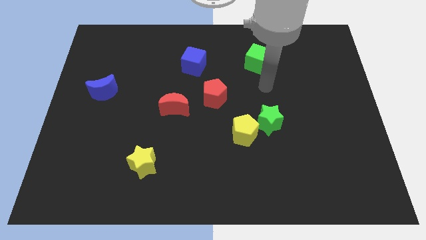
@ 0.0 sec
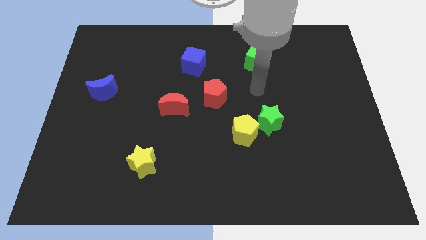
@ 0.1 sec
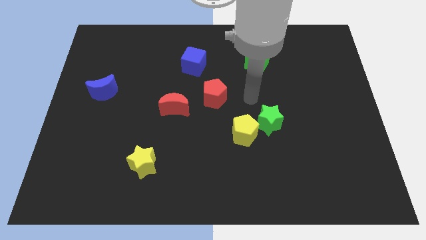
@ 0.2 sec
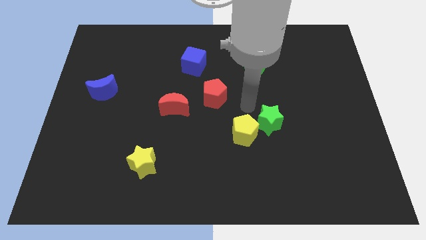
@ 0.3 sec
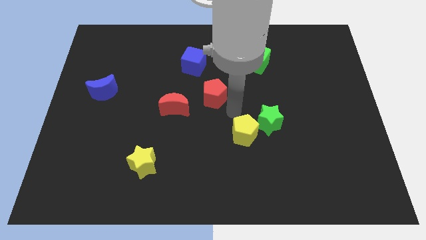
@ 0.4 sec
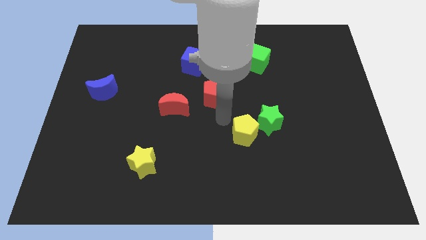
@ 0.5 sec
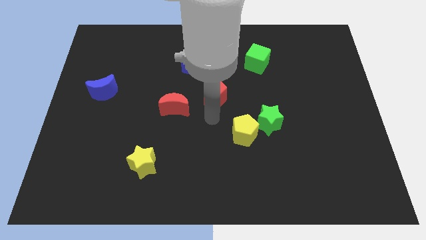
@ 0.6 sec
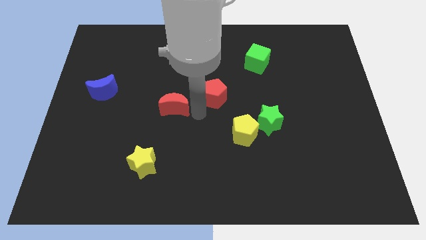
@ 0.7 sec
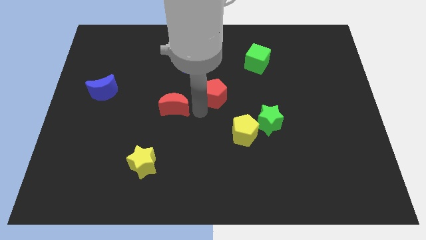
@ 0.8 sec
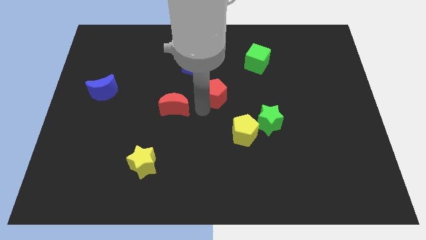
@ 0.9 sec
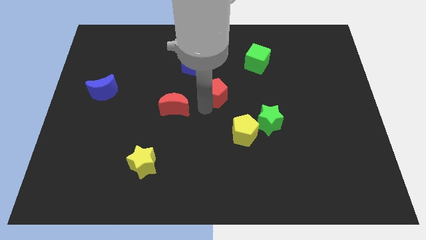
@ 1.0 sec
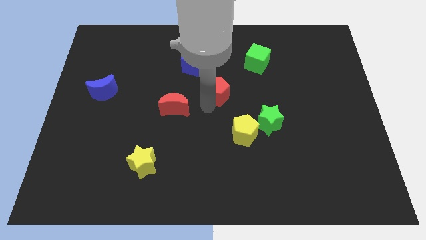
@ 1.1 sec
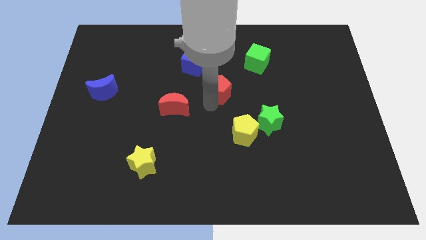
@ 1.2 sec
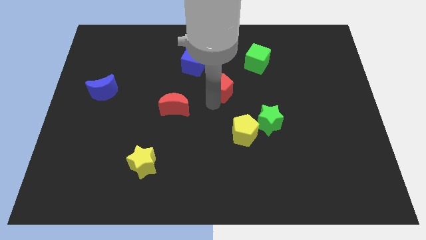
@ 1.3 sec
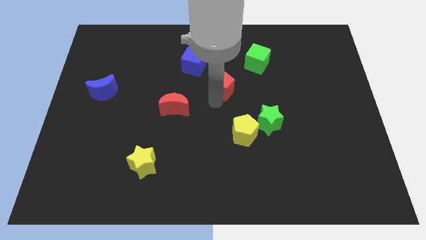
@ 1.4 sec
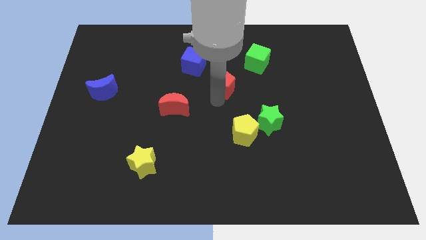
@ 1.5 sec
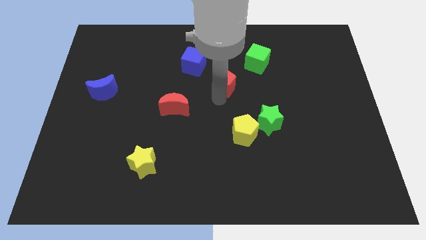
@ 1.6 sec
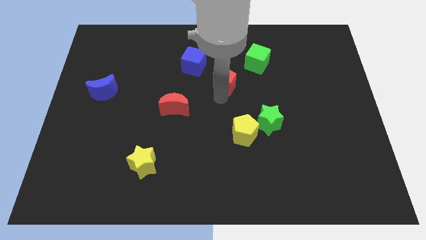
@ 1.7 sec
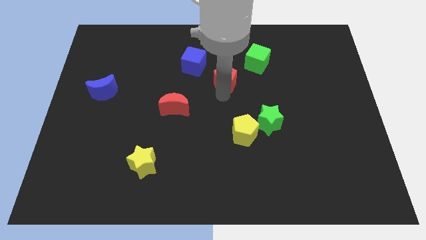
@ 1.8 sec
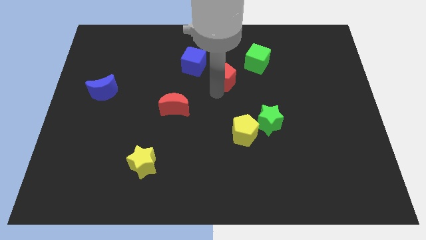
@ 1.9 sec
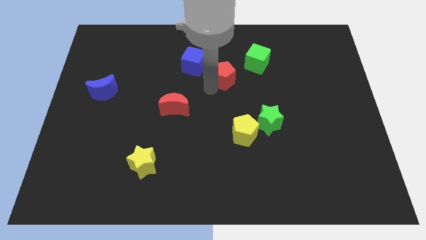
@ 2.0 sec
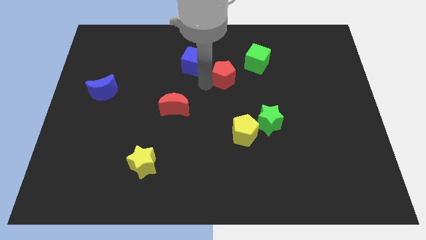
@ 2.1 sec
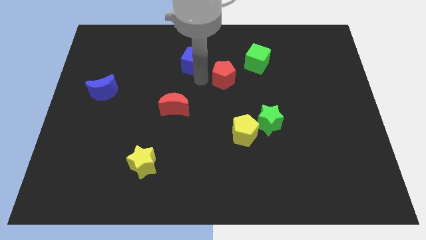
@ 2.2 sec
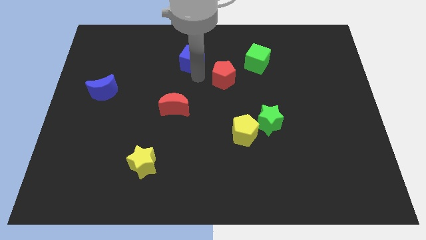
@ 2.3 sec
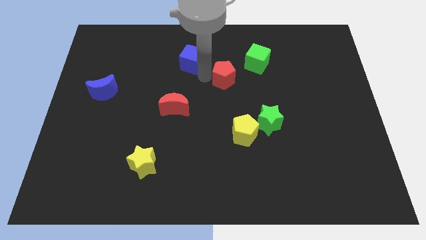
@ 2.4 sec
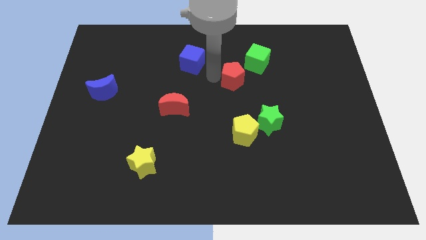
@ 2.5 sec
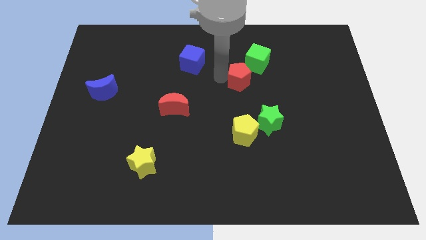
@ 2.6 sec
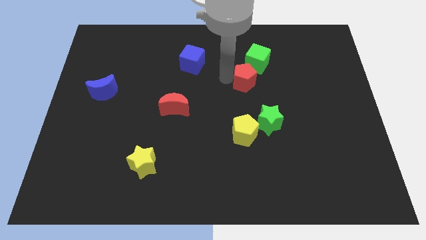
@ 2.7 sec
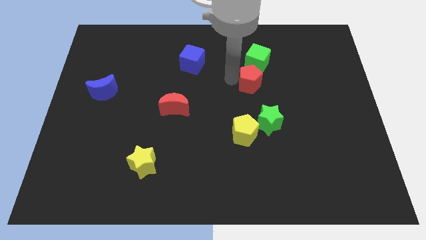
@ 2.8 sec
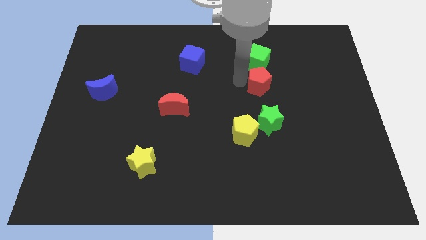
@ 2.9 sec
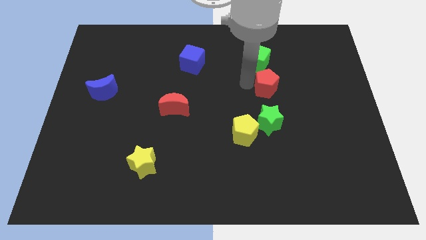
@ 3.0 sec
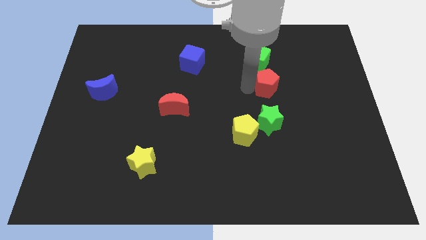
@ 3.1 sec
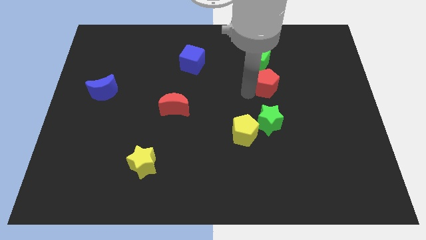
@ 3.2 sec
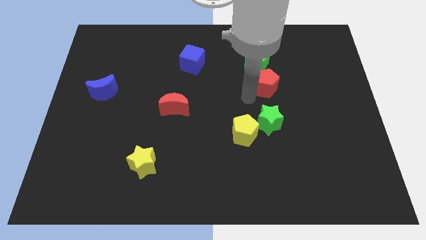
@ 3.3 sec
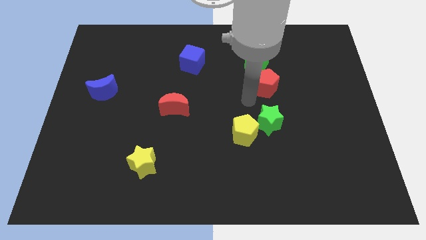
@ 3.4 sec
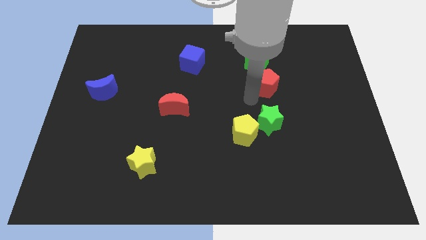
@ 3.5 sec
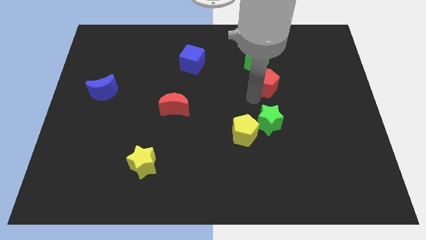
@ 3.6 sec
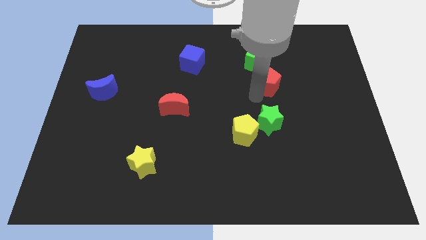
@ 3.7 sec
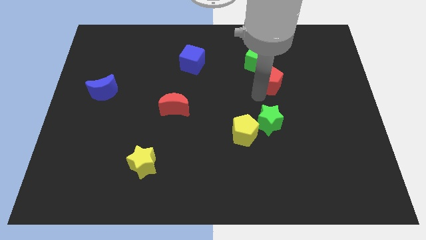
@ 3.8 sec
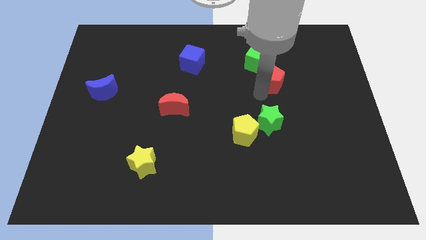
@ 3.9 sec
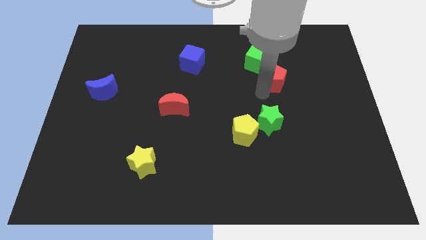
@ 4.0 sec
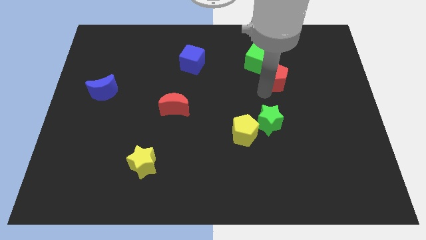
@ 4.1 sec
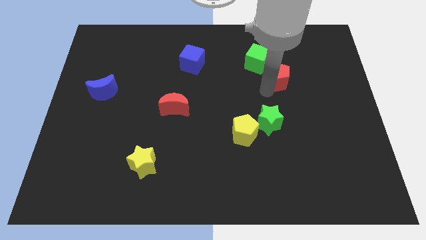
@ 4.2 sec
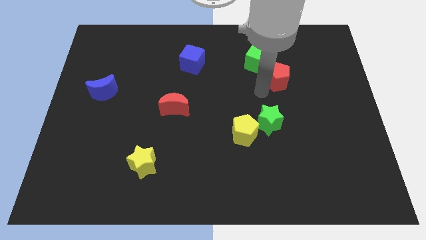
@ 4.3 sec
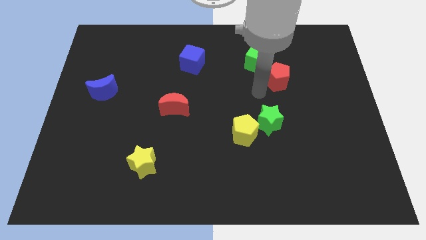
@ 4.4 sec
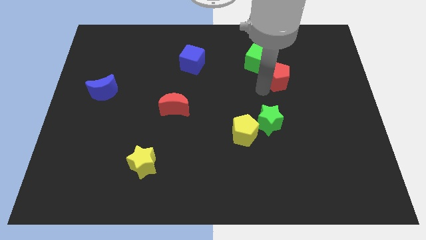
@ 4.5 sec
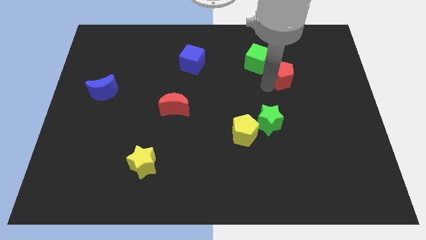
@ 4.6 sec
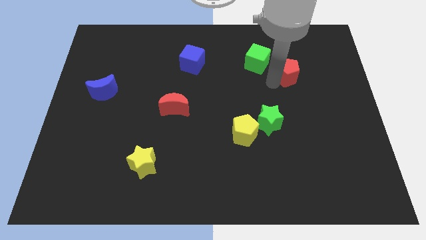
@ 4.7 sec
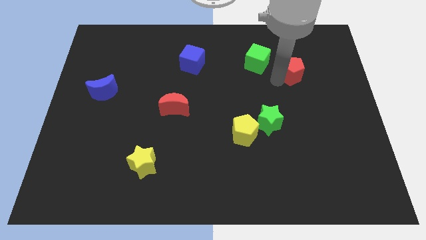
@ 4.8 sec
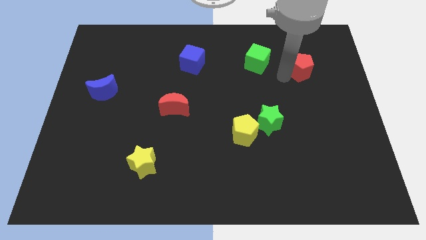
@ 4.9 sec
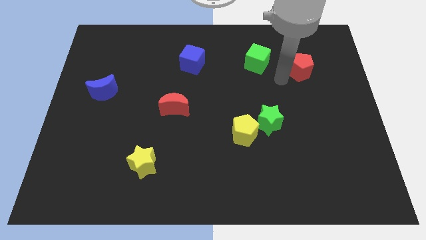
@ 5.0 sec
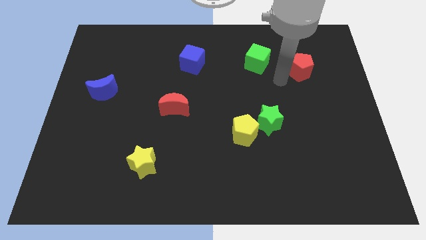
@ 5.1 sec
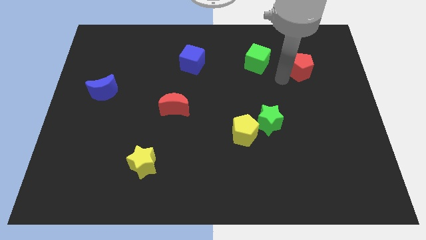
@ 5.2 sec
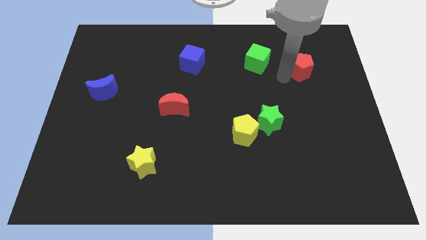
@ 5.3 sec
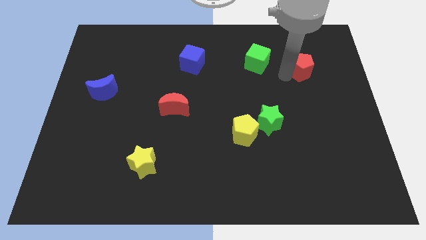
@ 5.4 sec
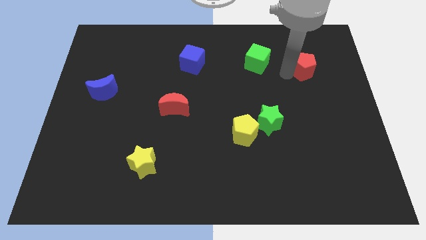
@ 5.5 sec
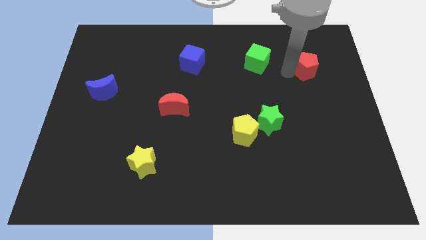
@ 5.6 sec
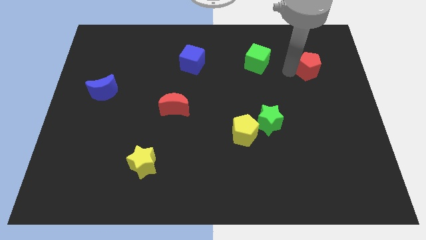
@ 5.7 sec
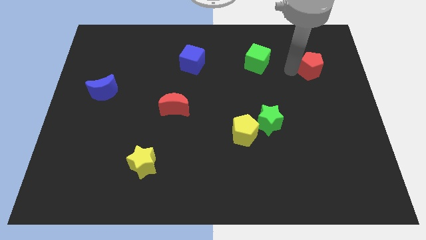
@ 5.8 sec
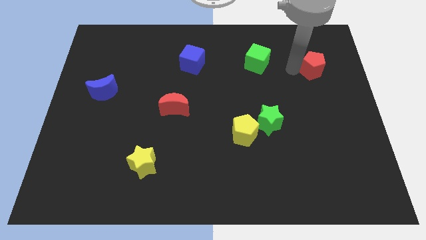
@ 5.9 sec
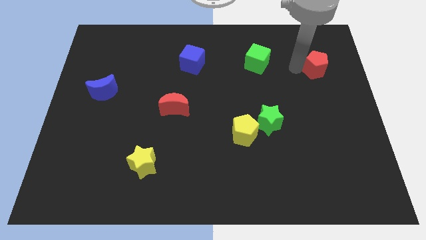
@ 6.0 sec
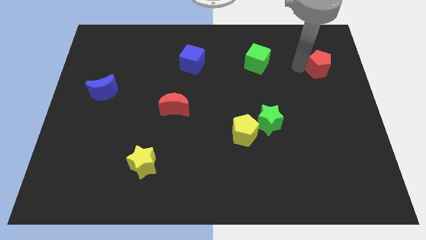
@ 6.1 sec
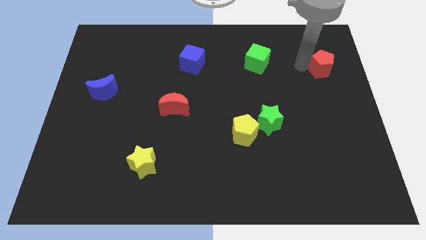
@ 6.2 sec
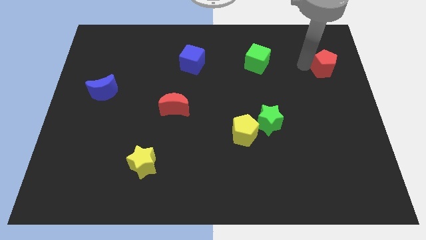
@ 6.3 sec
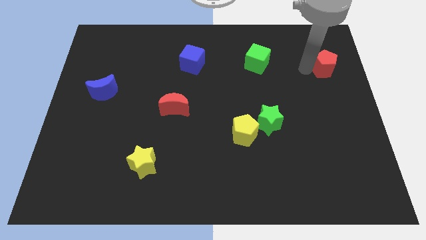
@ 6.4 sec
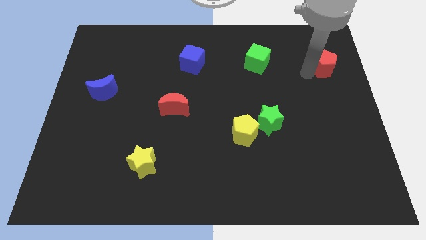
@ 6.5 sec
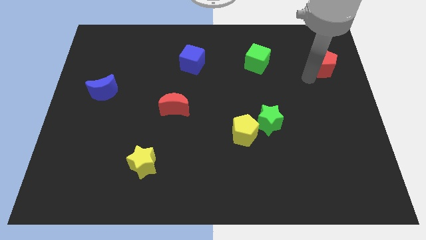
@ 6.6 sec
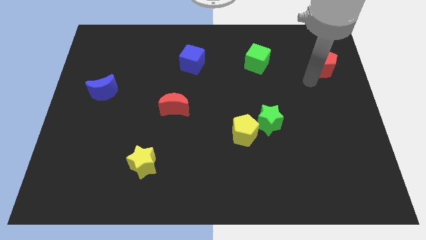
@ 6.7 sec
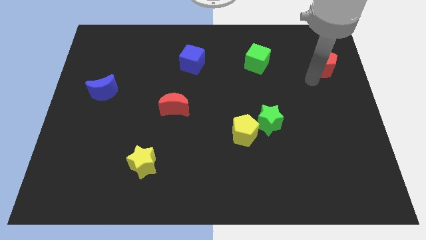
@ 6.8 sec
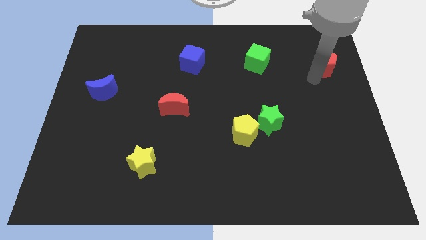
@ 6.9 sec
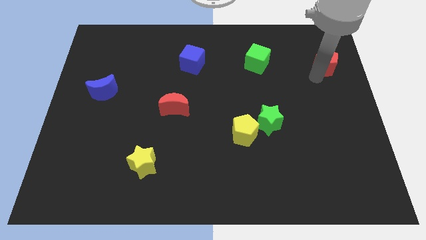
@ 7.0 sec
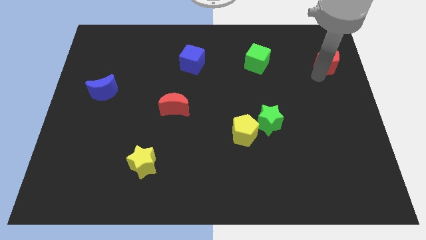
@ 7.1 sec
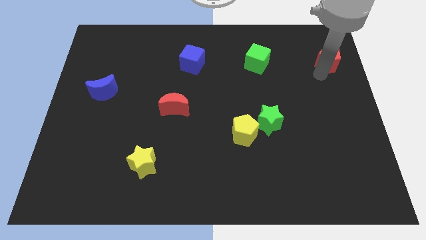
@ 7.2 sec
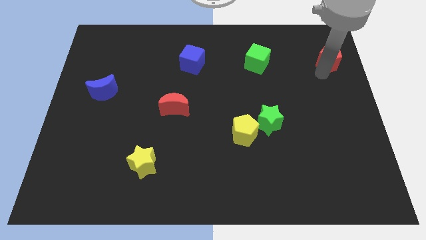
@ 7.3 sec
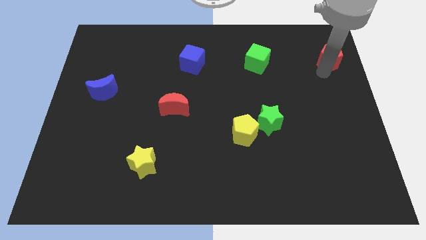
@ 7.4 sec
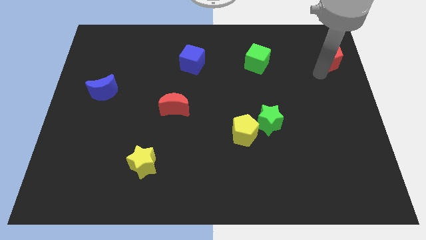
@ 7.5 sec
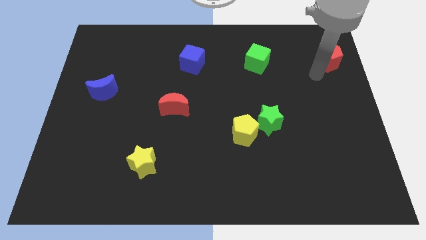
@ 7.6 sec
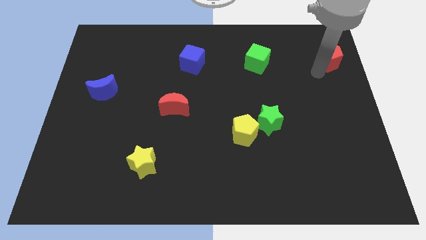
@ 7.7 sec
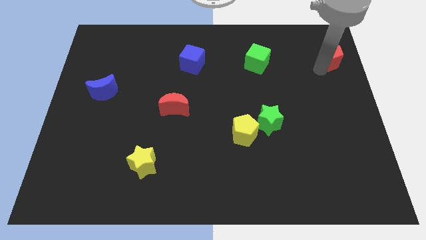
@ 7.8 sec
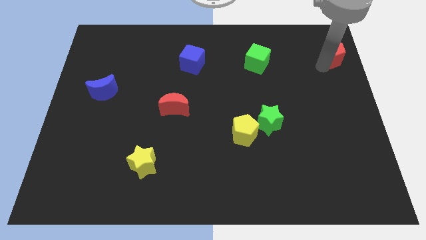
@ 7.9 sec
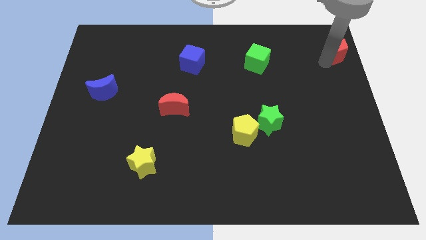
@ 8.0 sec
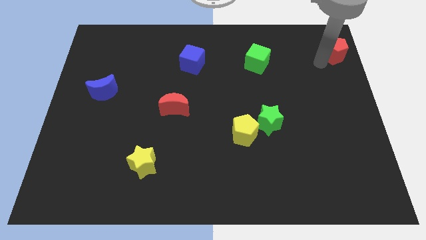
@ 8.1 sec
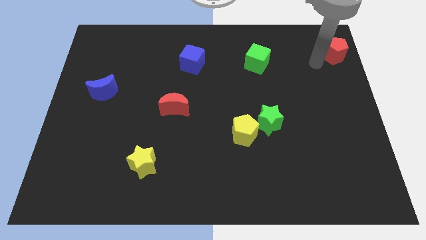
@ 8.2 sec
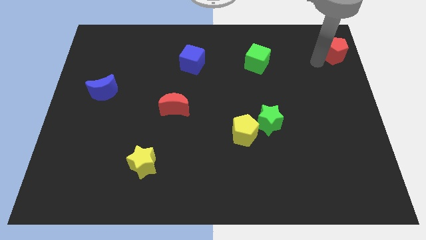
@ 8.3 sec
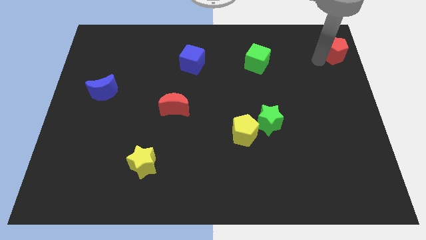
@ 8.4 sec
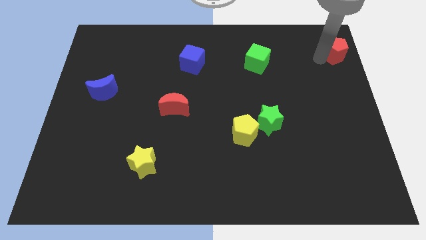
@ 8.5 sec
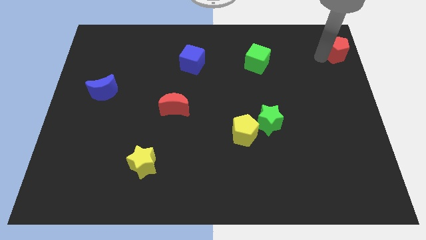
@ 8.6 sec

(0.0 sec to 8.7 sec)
put the red pentagon to the top right
